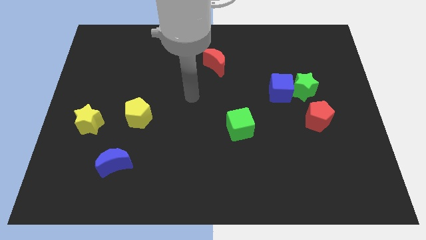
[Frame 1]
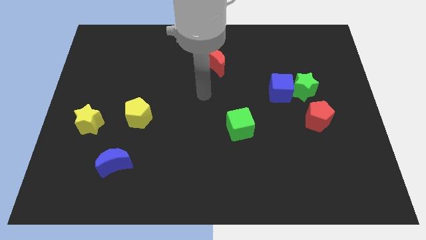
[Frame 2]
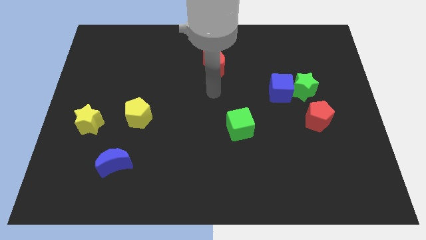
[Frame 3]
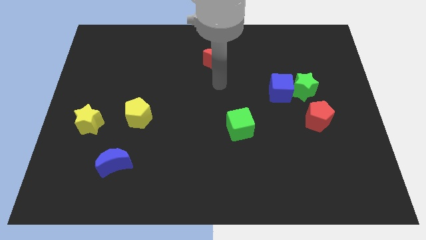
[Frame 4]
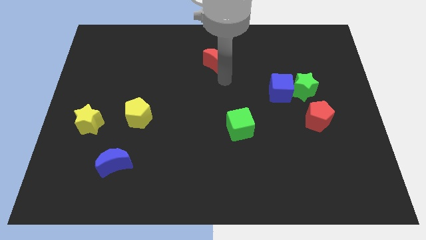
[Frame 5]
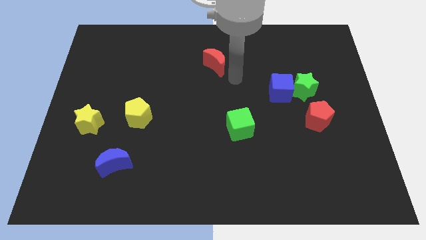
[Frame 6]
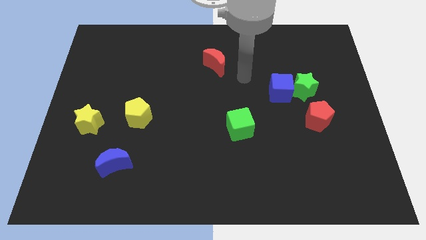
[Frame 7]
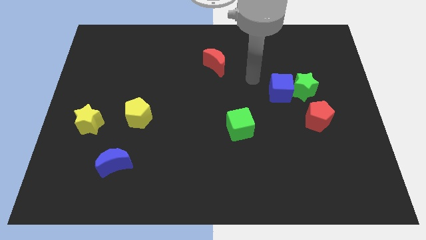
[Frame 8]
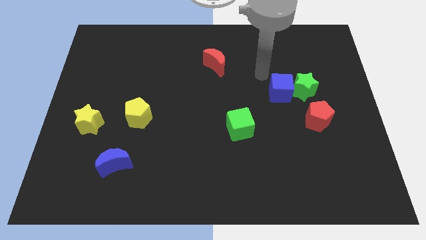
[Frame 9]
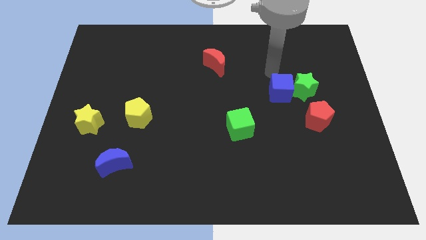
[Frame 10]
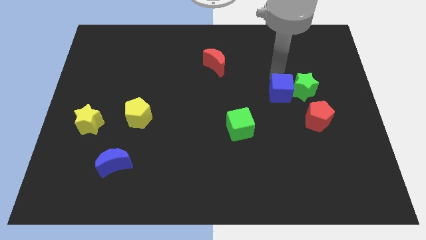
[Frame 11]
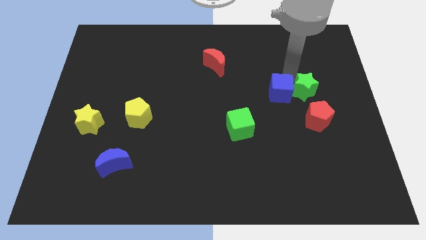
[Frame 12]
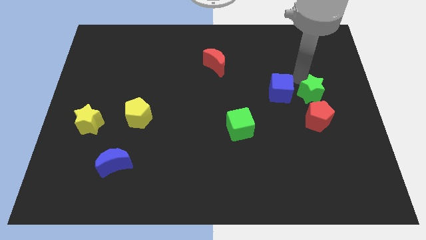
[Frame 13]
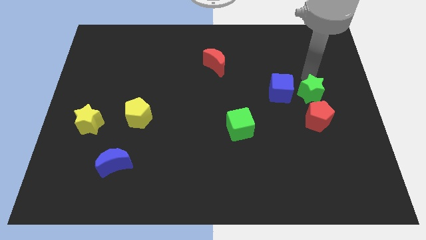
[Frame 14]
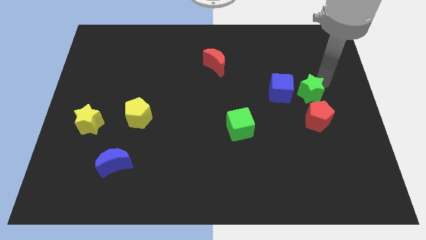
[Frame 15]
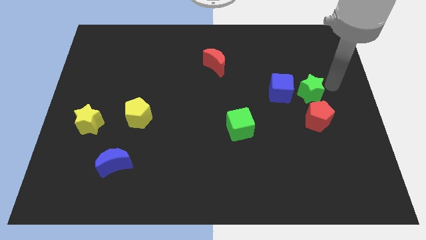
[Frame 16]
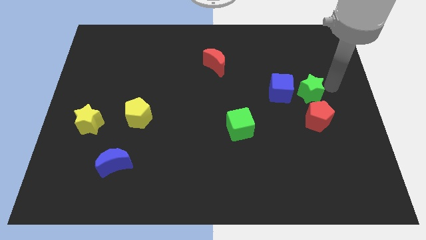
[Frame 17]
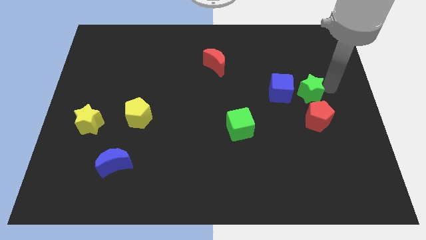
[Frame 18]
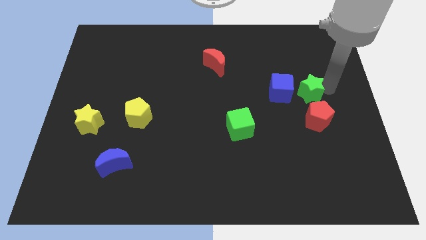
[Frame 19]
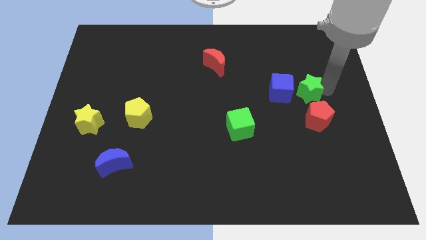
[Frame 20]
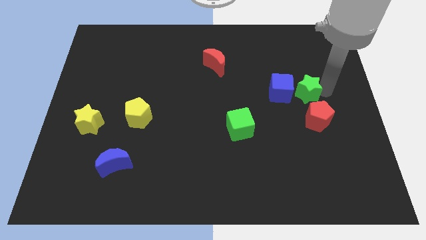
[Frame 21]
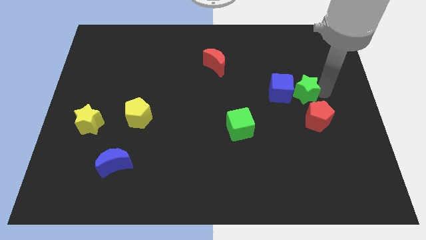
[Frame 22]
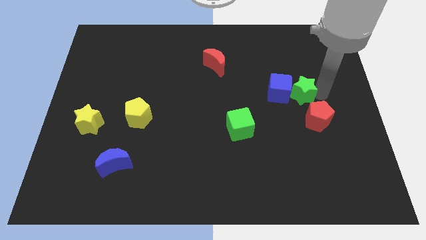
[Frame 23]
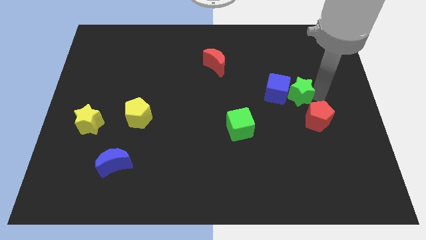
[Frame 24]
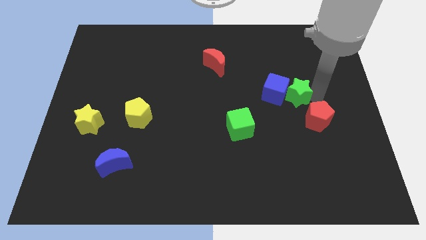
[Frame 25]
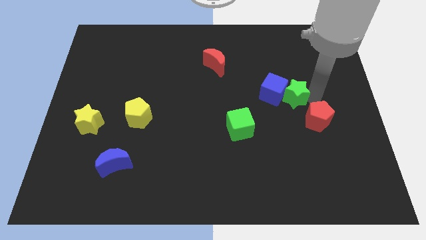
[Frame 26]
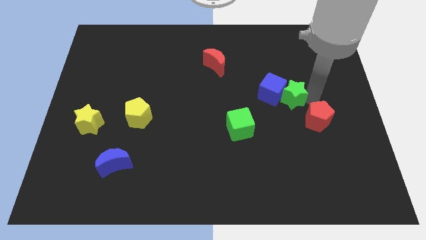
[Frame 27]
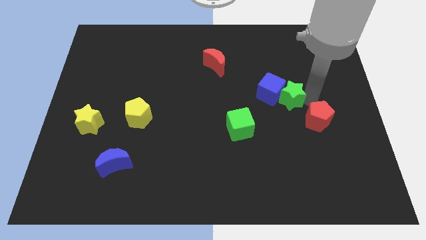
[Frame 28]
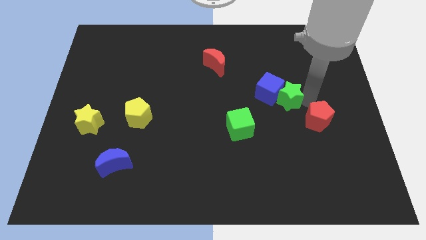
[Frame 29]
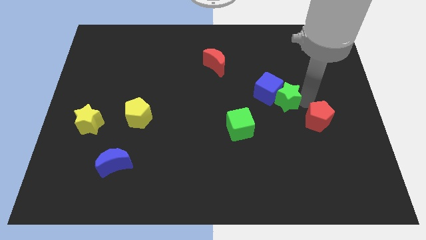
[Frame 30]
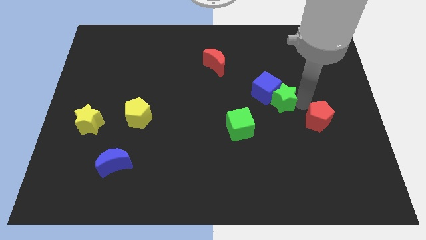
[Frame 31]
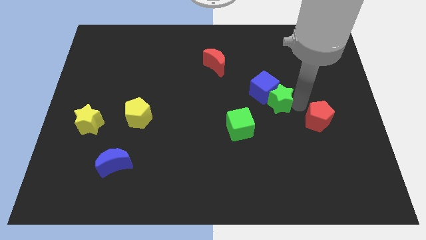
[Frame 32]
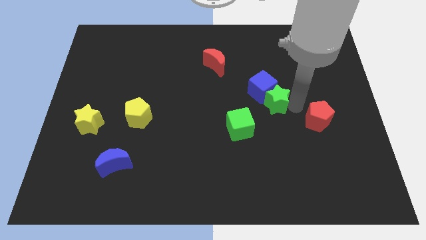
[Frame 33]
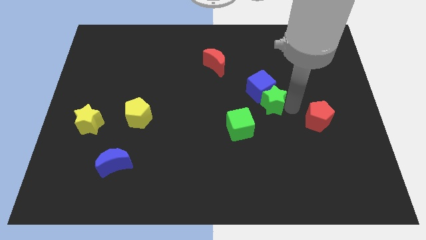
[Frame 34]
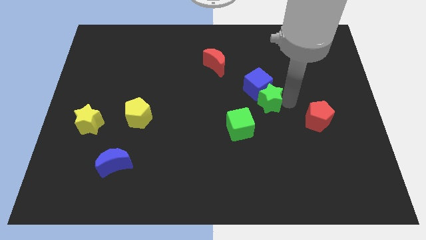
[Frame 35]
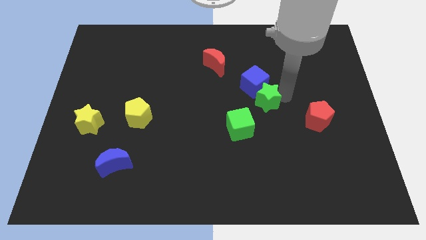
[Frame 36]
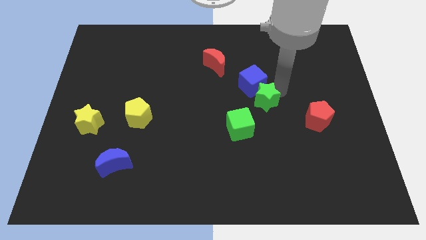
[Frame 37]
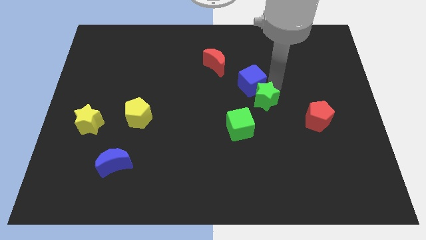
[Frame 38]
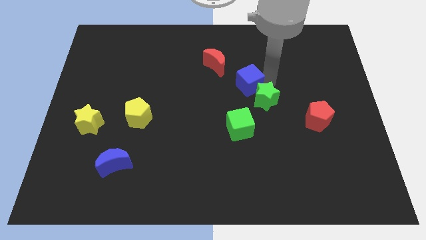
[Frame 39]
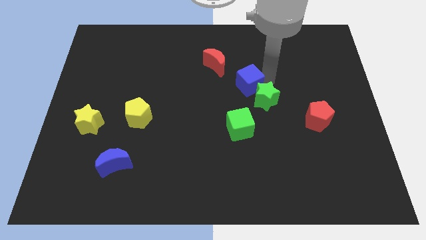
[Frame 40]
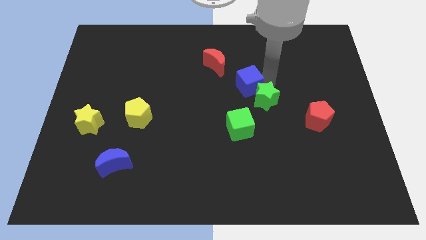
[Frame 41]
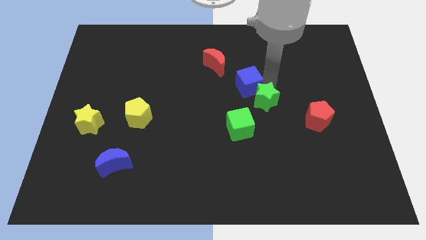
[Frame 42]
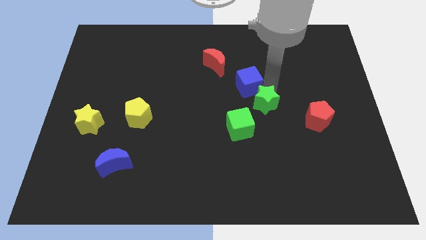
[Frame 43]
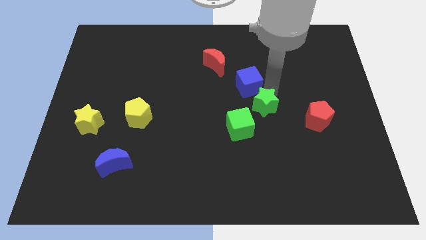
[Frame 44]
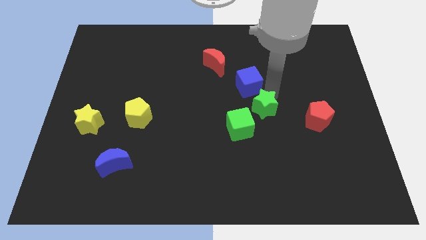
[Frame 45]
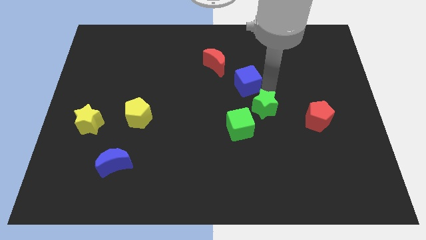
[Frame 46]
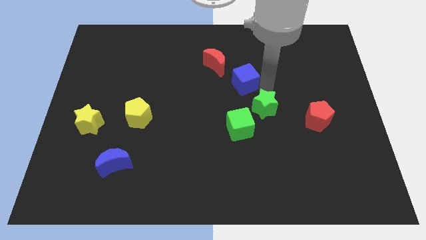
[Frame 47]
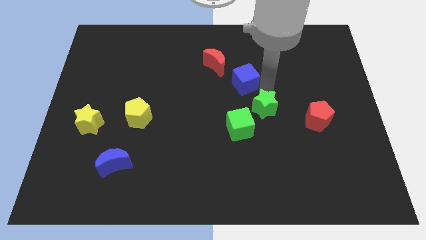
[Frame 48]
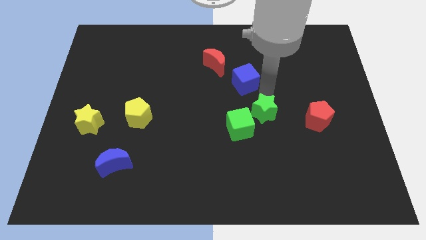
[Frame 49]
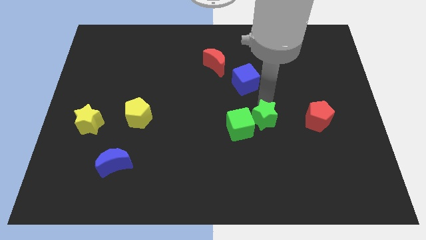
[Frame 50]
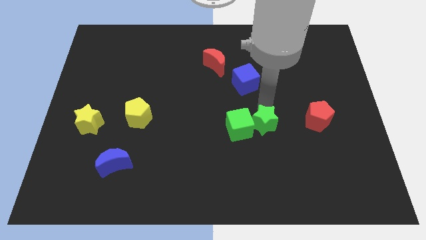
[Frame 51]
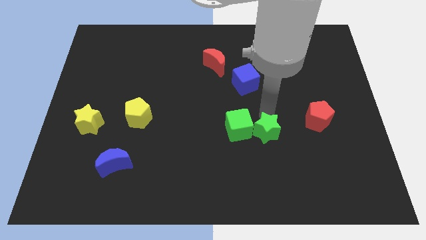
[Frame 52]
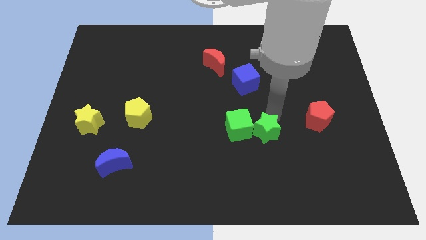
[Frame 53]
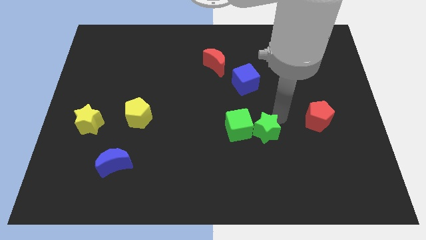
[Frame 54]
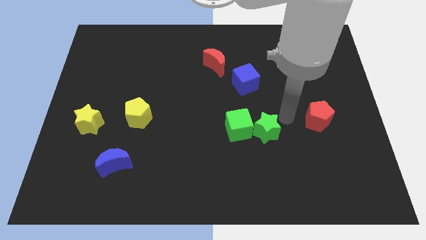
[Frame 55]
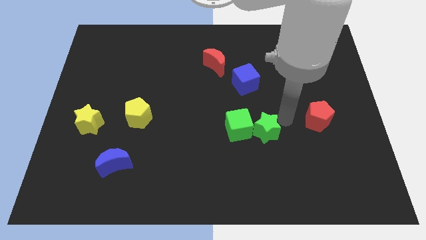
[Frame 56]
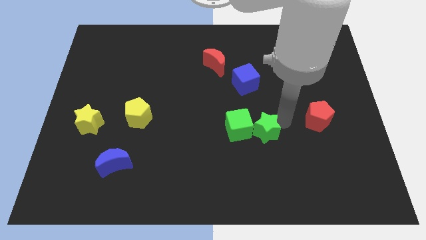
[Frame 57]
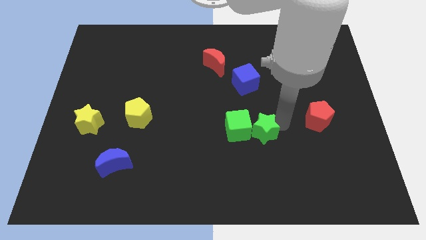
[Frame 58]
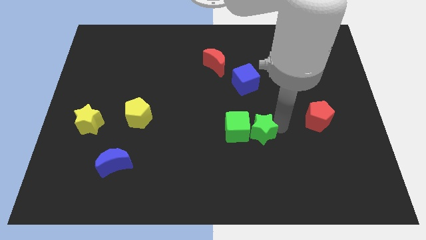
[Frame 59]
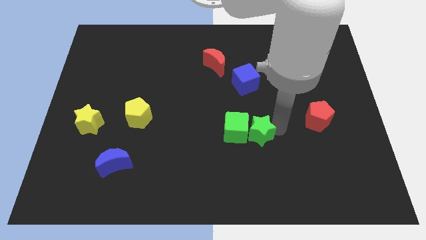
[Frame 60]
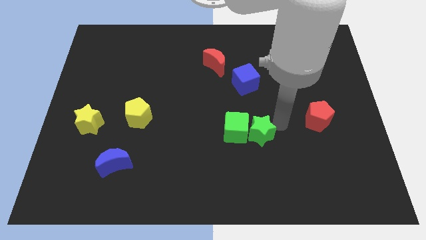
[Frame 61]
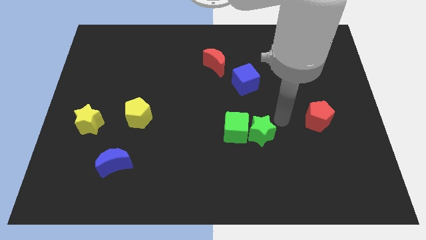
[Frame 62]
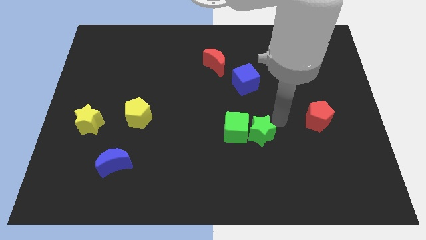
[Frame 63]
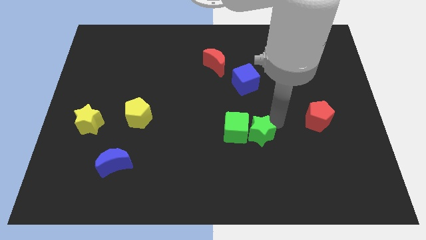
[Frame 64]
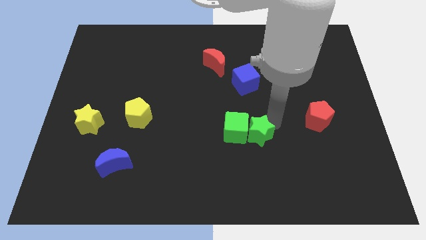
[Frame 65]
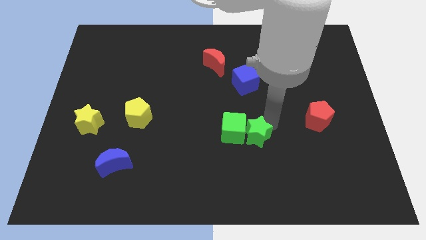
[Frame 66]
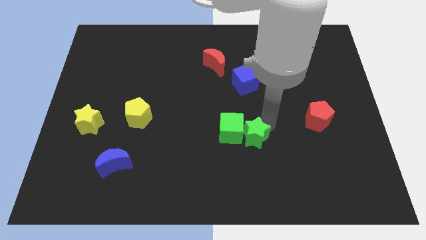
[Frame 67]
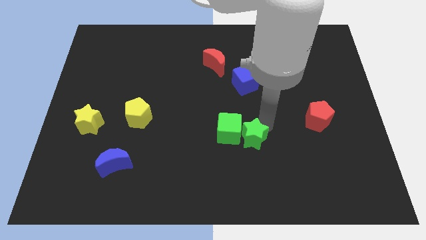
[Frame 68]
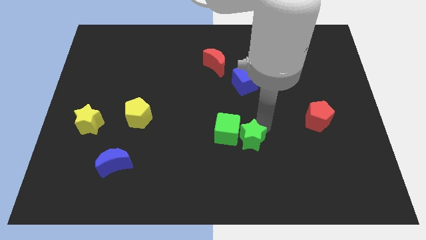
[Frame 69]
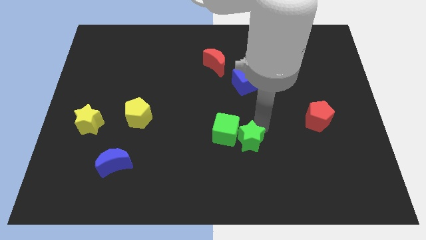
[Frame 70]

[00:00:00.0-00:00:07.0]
slide the green star down and to the left

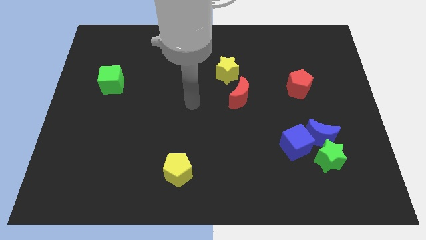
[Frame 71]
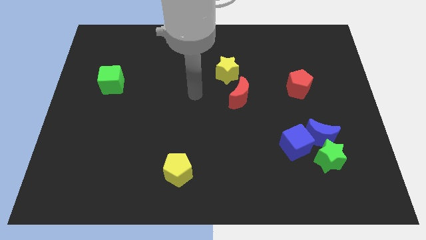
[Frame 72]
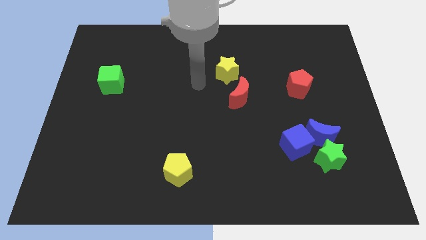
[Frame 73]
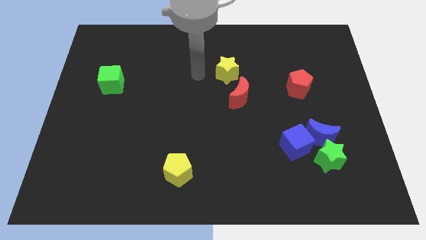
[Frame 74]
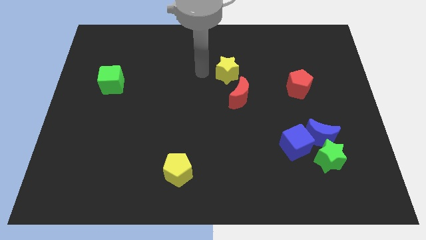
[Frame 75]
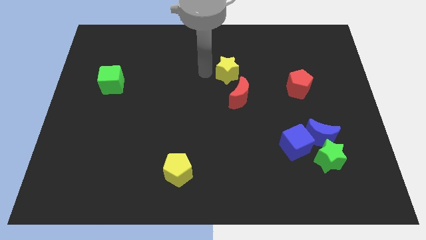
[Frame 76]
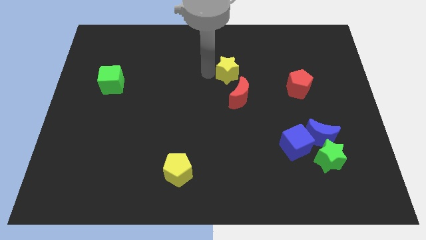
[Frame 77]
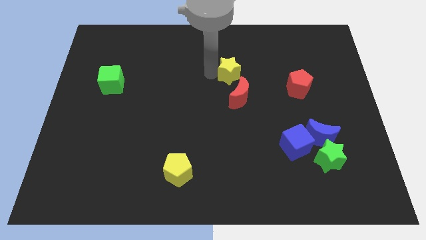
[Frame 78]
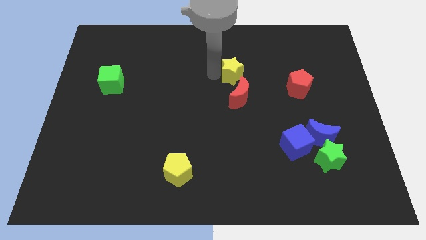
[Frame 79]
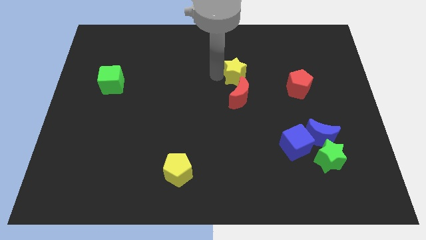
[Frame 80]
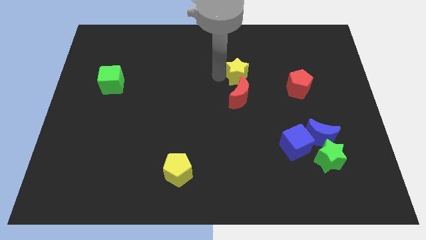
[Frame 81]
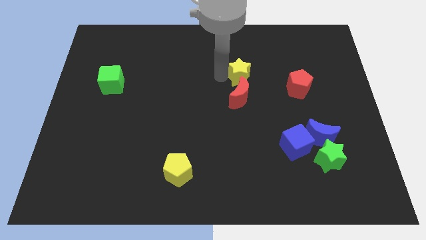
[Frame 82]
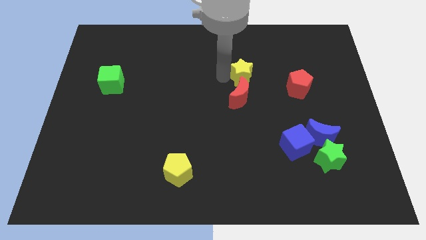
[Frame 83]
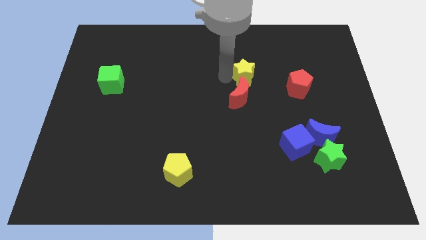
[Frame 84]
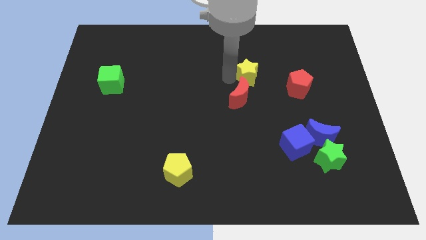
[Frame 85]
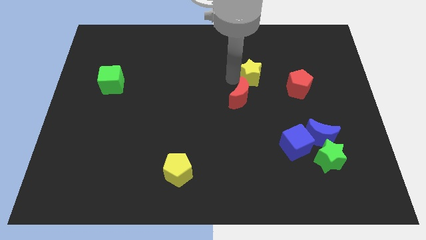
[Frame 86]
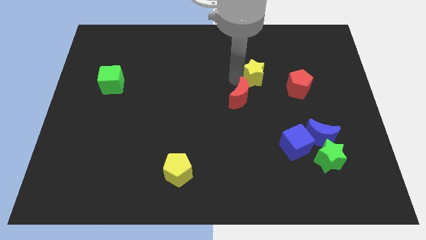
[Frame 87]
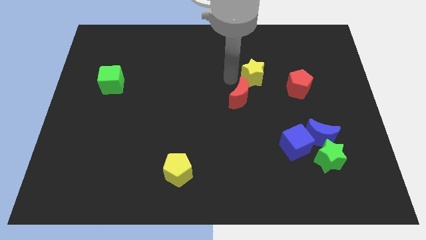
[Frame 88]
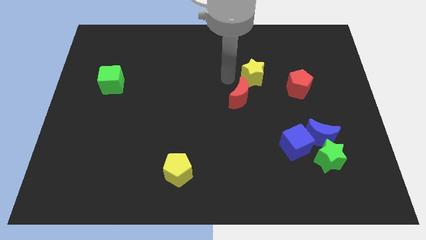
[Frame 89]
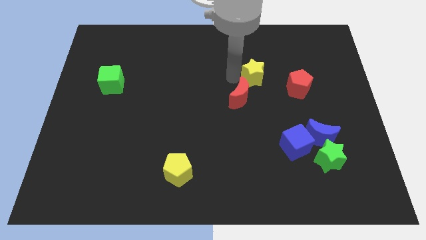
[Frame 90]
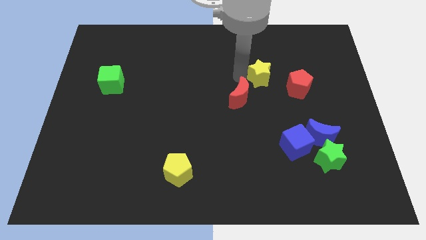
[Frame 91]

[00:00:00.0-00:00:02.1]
slightly slide the yellow star right
